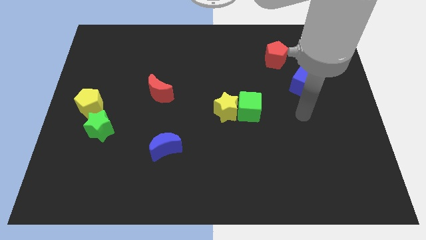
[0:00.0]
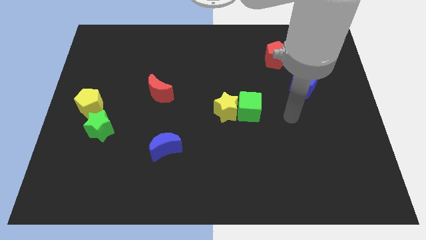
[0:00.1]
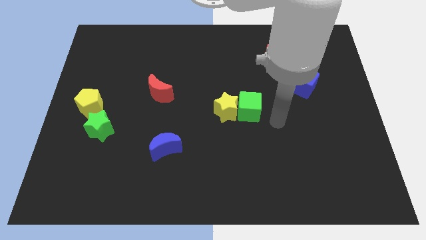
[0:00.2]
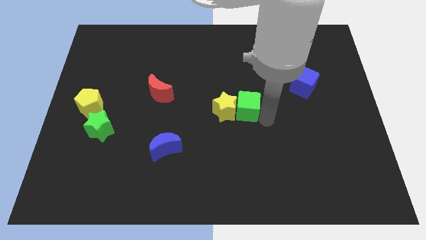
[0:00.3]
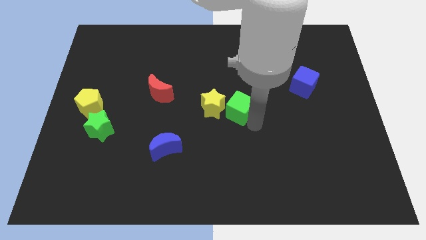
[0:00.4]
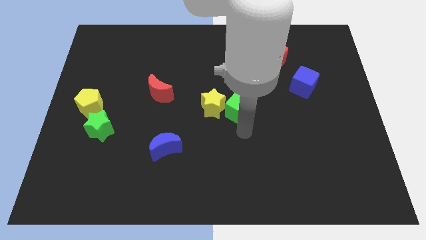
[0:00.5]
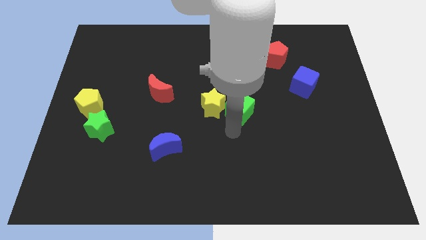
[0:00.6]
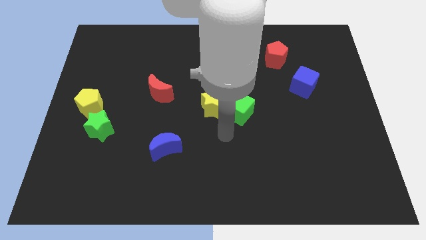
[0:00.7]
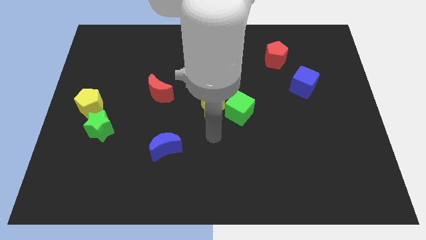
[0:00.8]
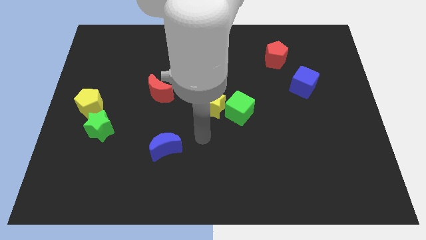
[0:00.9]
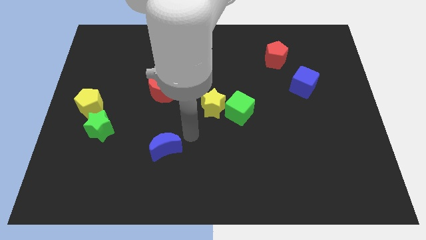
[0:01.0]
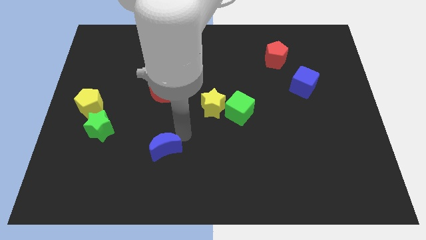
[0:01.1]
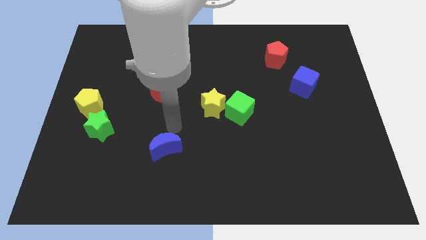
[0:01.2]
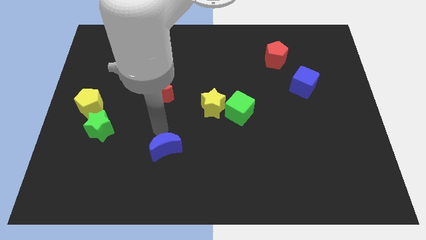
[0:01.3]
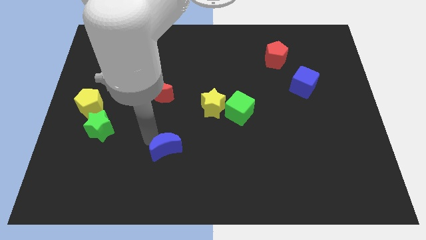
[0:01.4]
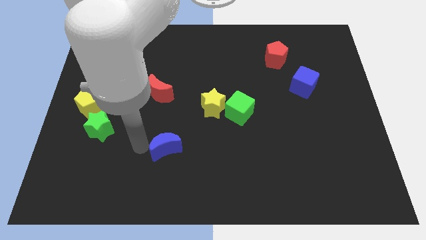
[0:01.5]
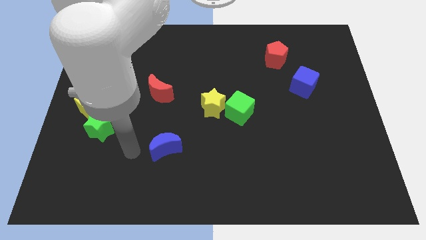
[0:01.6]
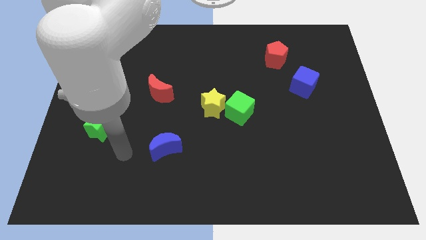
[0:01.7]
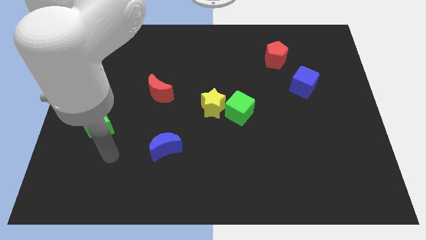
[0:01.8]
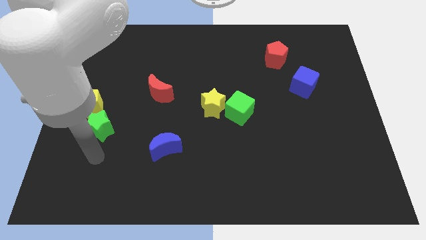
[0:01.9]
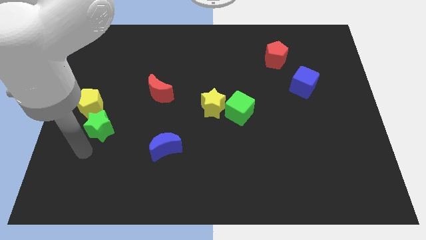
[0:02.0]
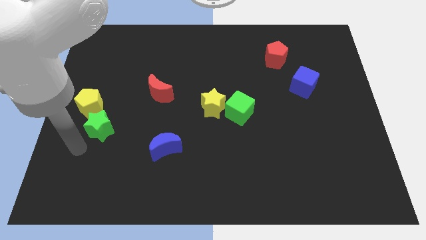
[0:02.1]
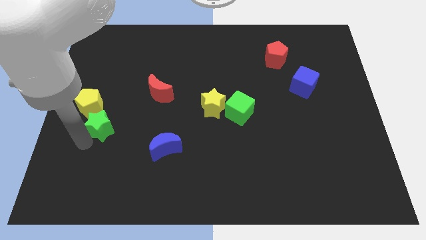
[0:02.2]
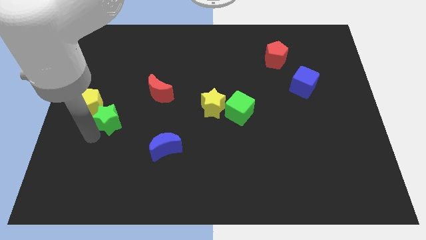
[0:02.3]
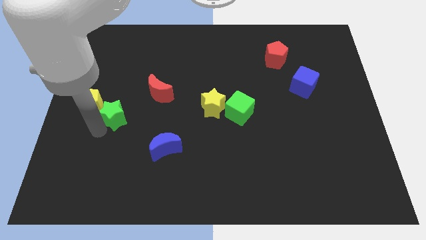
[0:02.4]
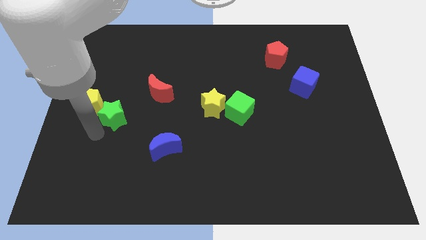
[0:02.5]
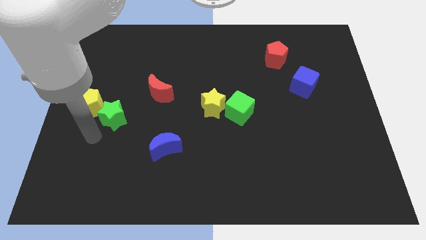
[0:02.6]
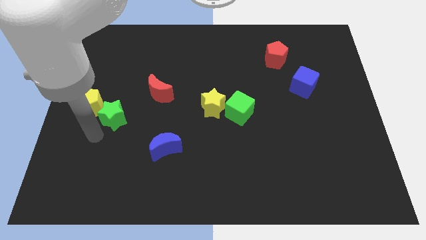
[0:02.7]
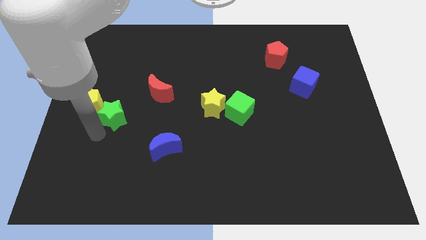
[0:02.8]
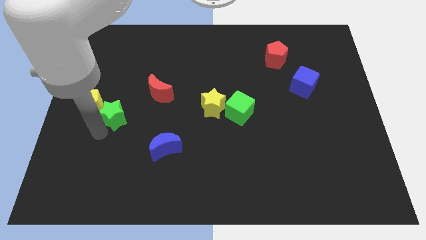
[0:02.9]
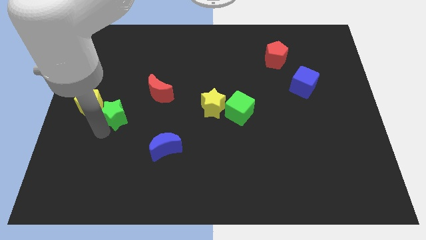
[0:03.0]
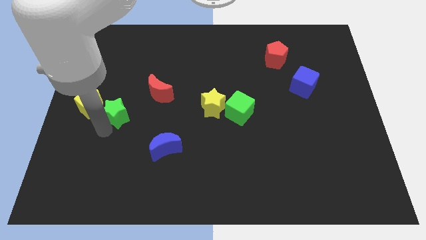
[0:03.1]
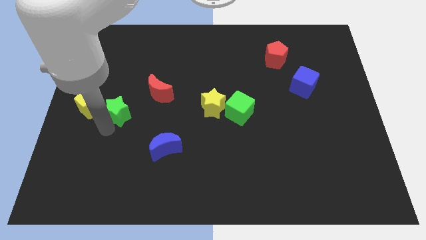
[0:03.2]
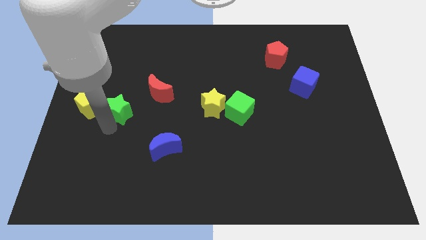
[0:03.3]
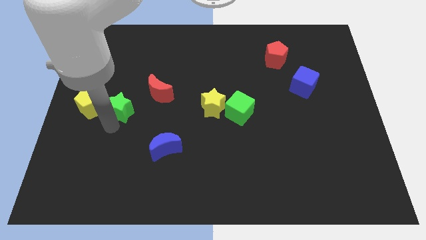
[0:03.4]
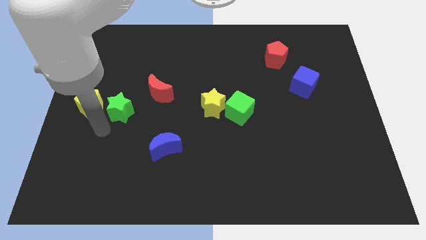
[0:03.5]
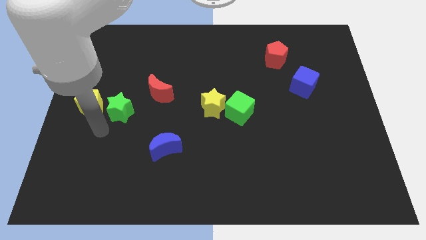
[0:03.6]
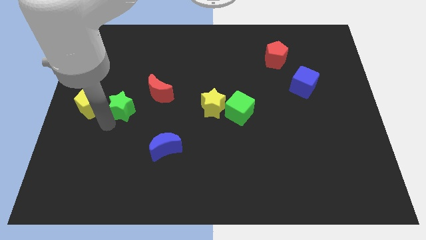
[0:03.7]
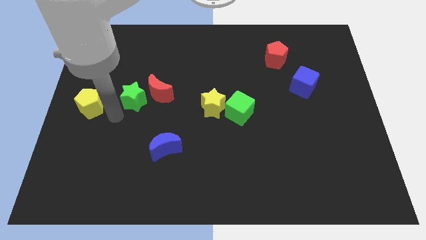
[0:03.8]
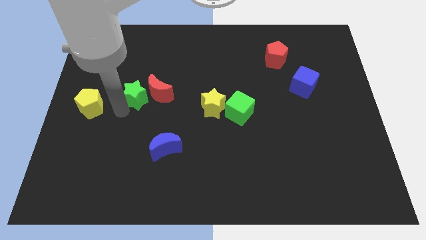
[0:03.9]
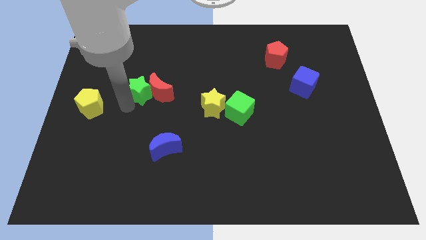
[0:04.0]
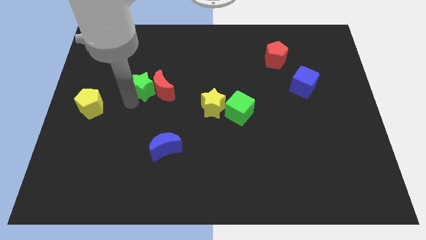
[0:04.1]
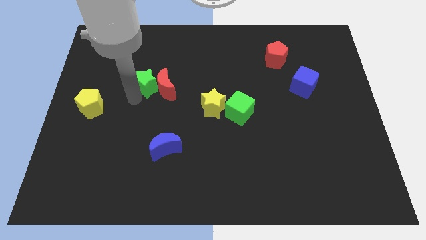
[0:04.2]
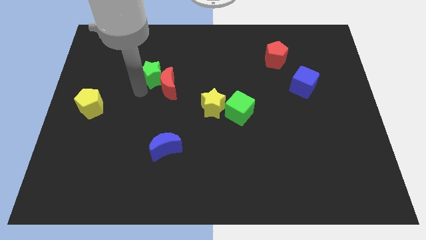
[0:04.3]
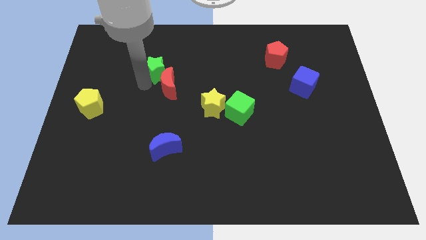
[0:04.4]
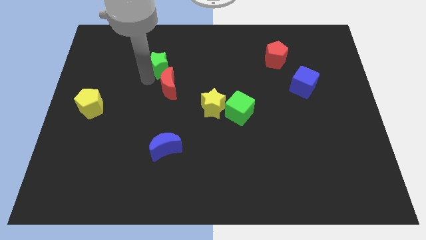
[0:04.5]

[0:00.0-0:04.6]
push the green star up and right diagonally

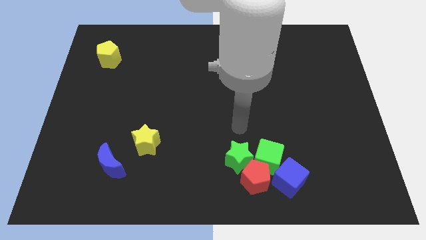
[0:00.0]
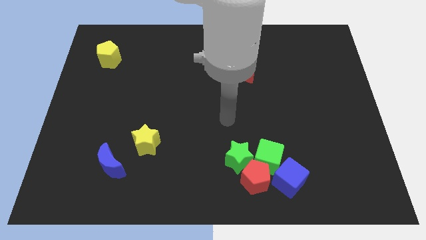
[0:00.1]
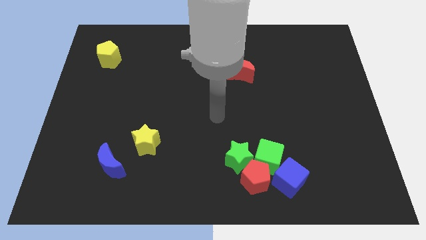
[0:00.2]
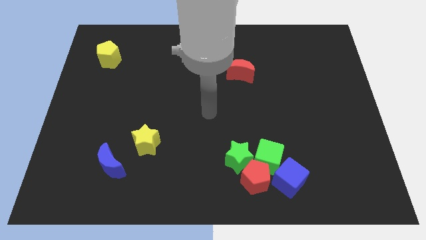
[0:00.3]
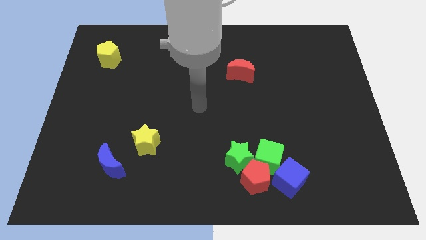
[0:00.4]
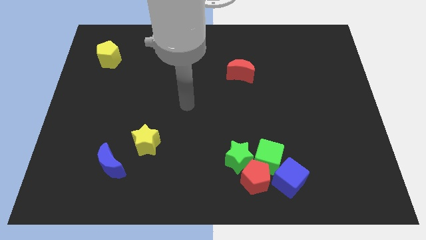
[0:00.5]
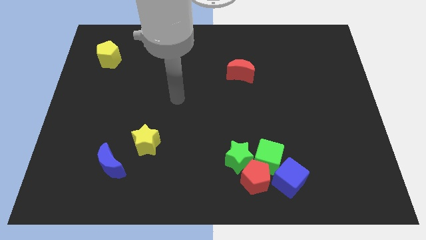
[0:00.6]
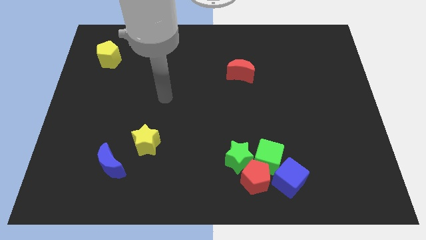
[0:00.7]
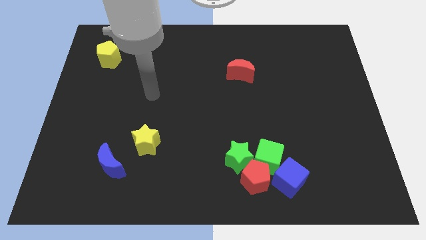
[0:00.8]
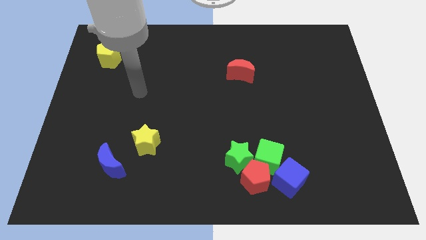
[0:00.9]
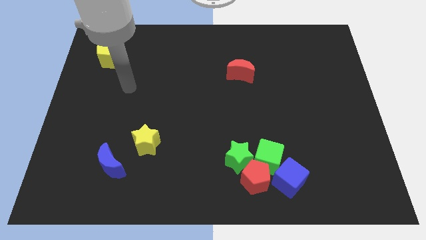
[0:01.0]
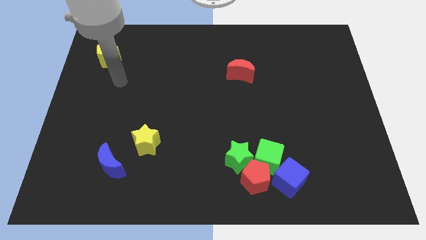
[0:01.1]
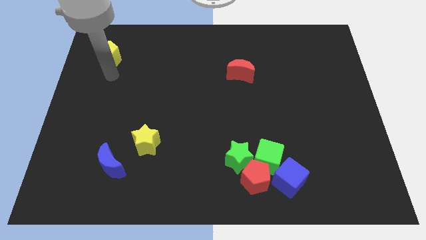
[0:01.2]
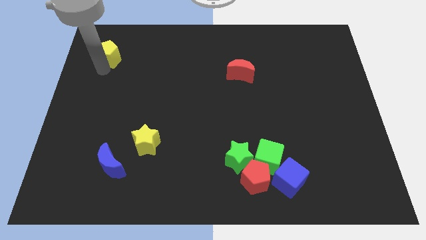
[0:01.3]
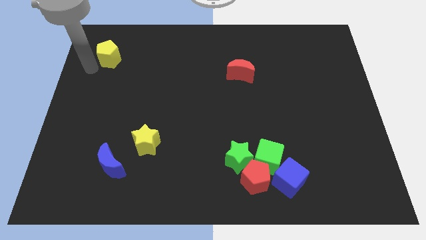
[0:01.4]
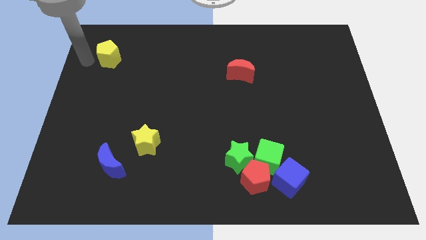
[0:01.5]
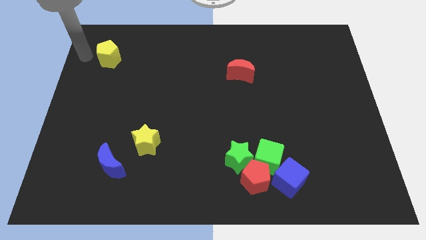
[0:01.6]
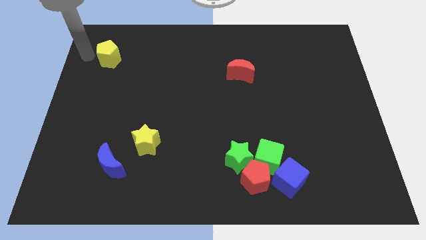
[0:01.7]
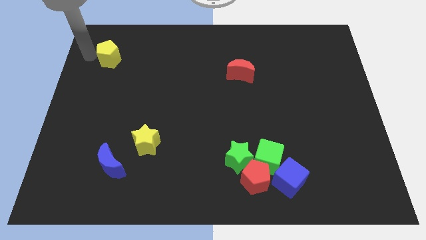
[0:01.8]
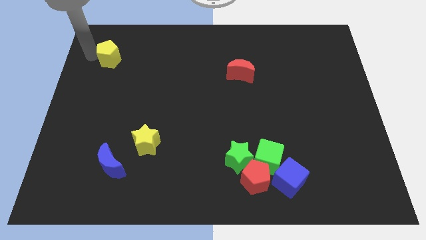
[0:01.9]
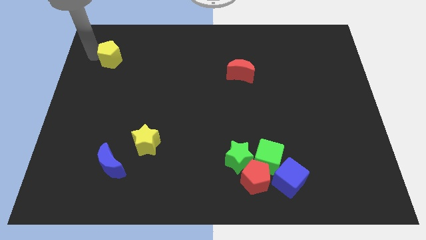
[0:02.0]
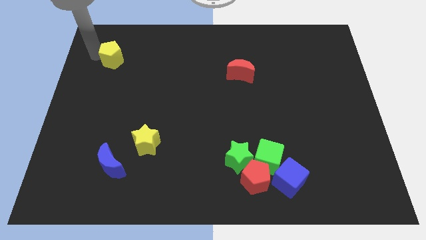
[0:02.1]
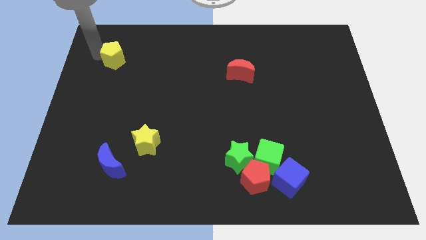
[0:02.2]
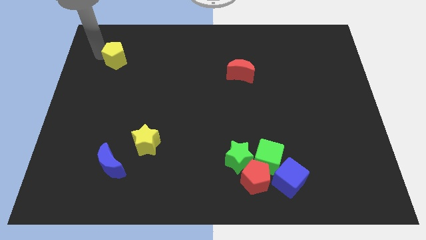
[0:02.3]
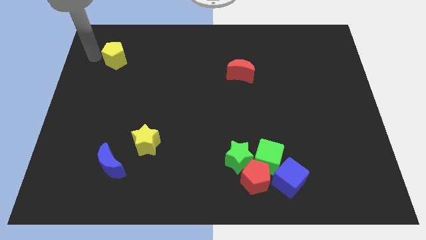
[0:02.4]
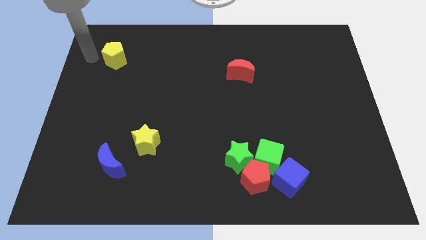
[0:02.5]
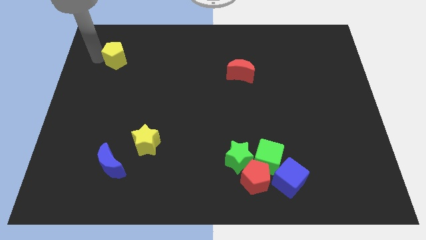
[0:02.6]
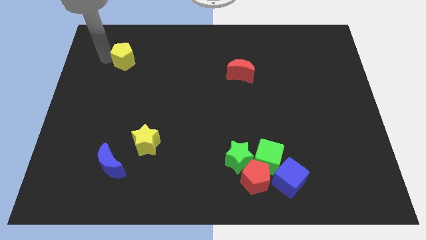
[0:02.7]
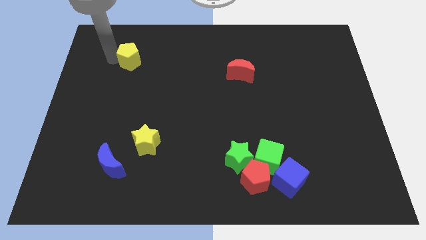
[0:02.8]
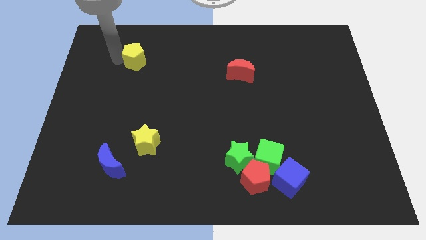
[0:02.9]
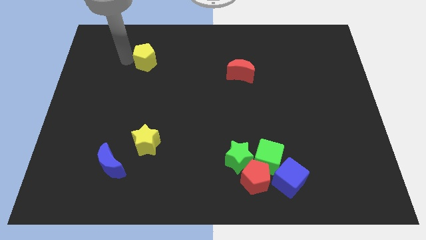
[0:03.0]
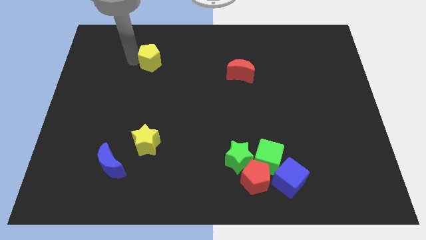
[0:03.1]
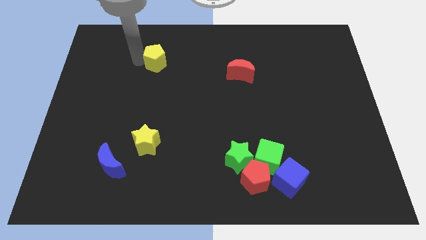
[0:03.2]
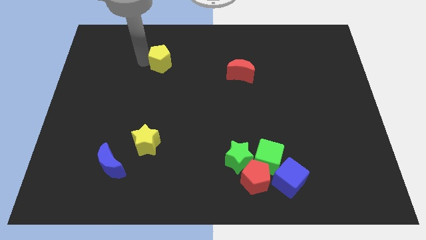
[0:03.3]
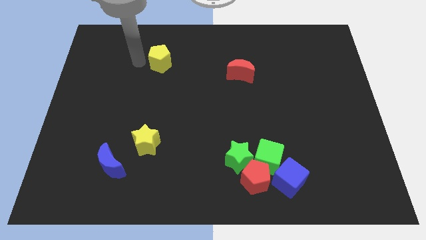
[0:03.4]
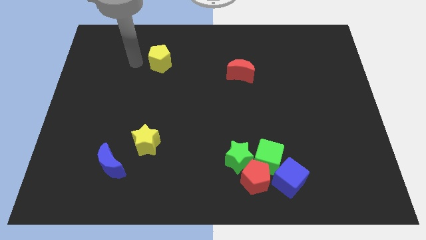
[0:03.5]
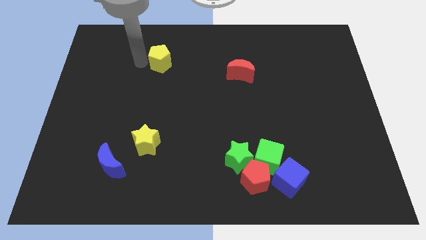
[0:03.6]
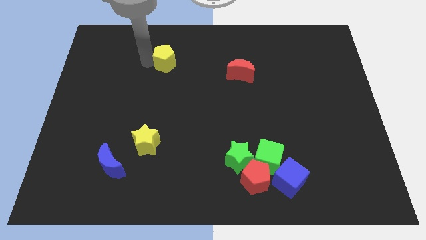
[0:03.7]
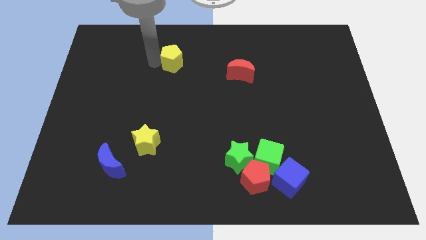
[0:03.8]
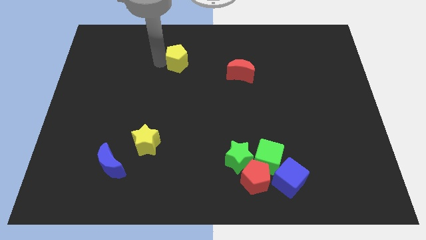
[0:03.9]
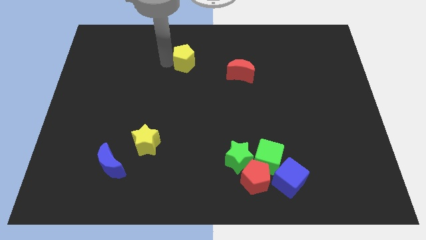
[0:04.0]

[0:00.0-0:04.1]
move the yellow pentagon right
